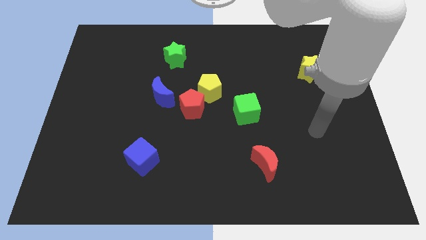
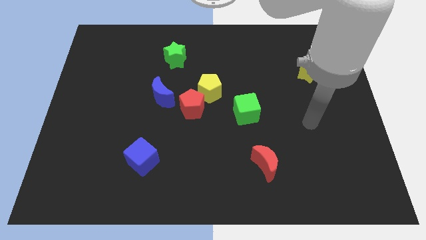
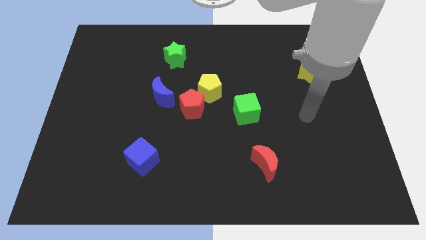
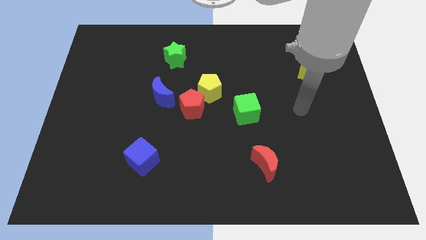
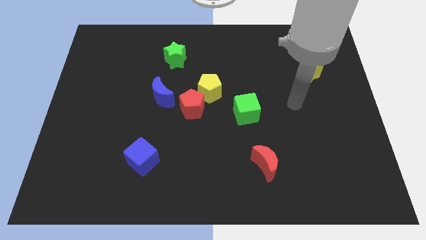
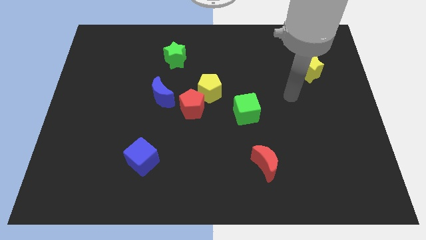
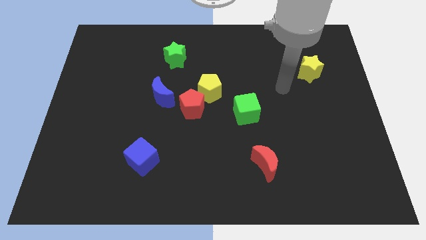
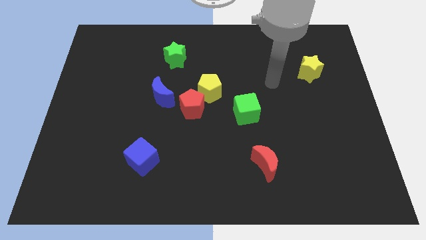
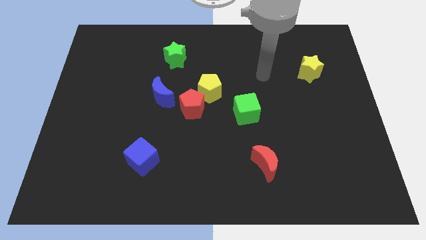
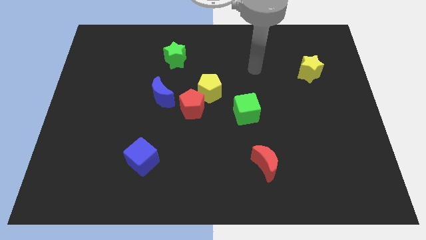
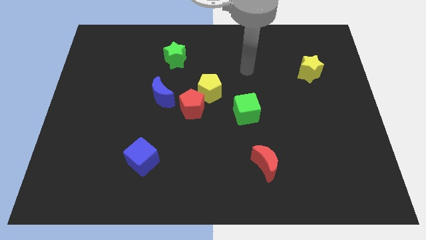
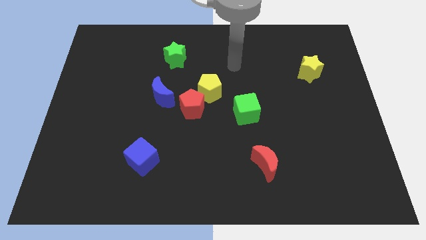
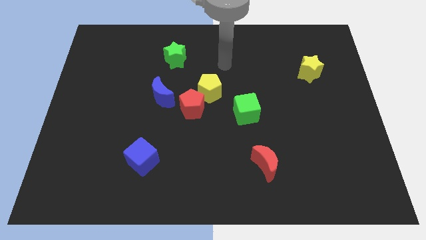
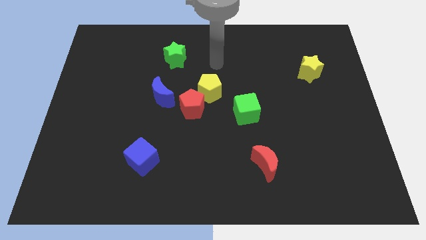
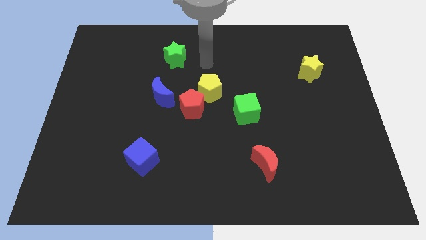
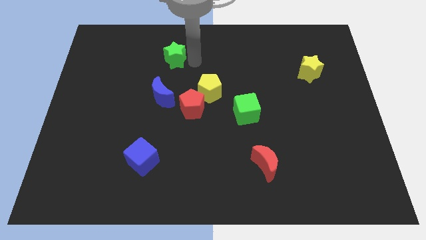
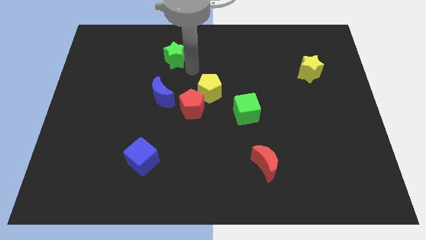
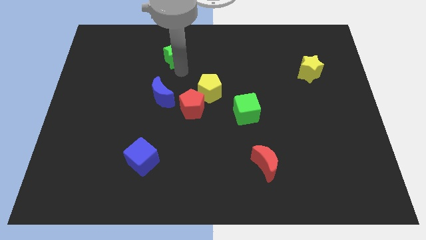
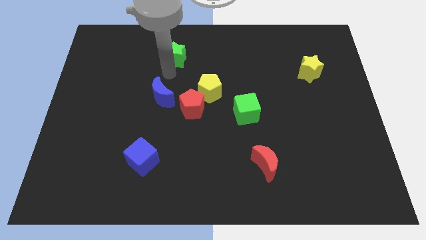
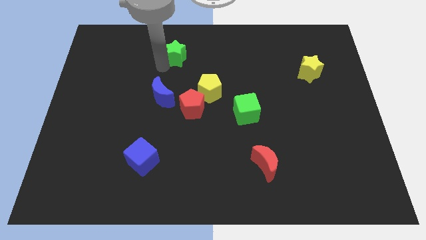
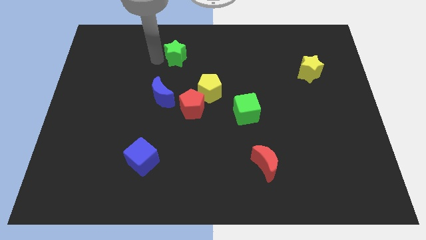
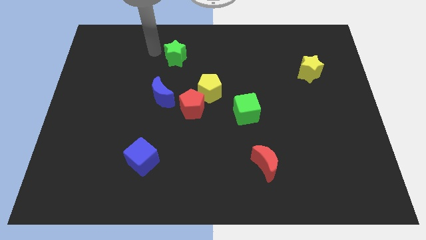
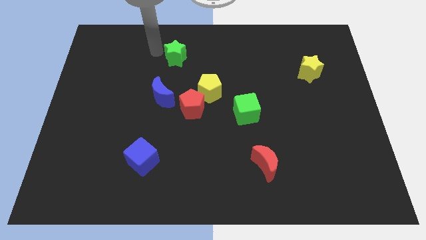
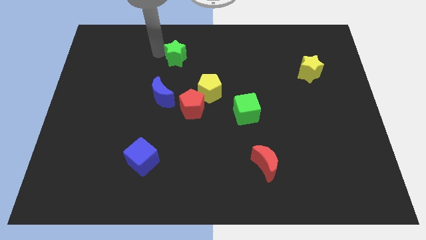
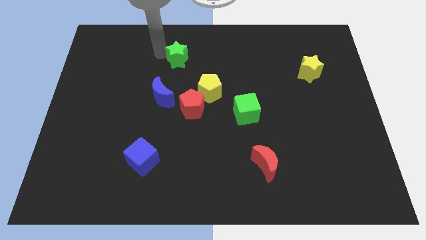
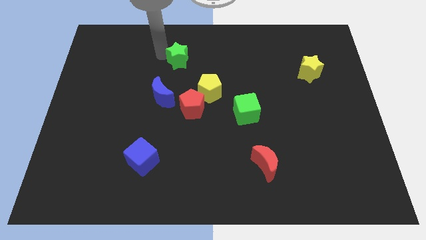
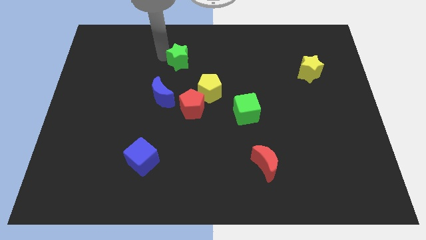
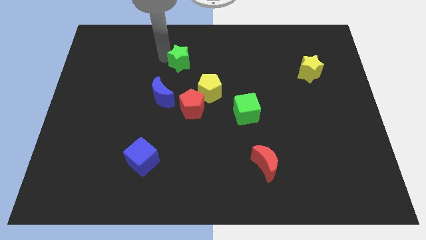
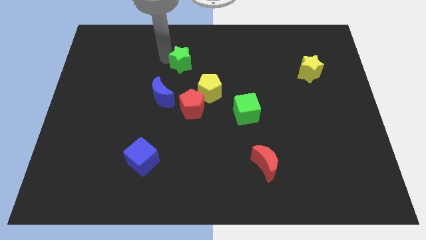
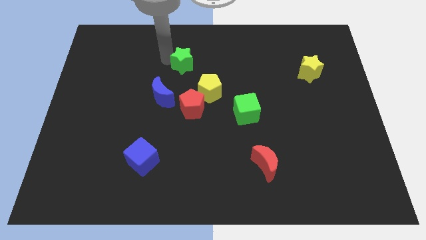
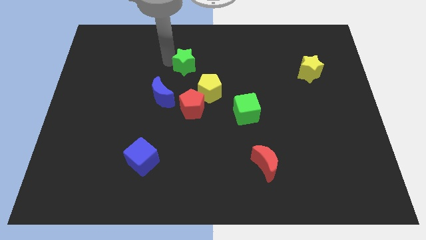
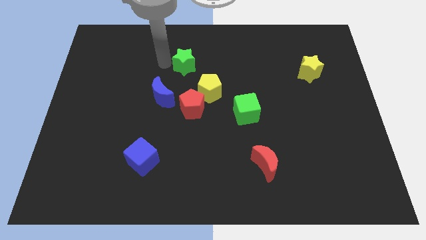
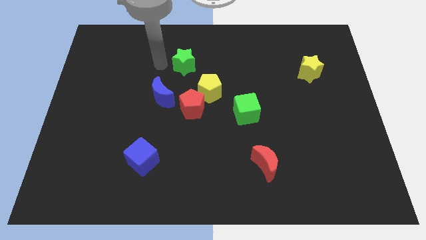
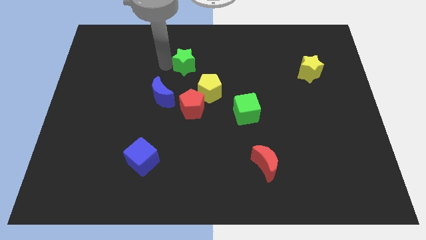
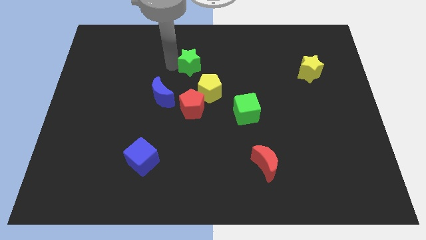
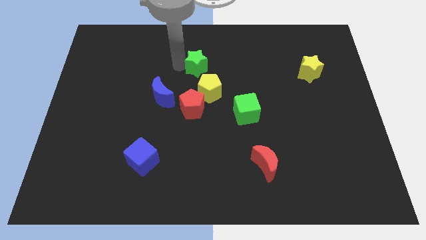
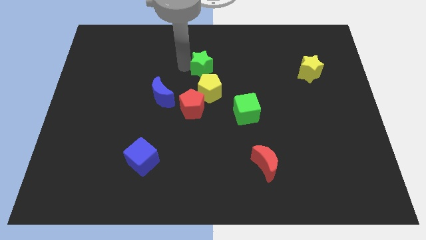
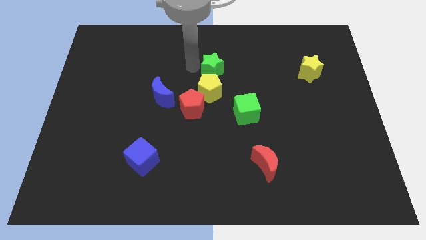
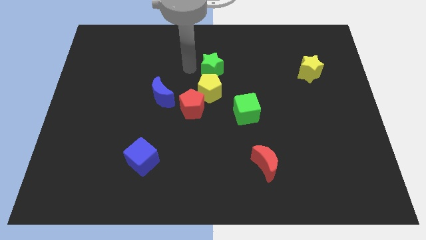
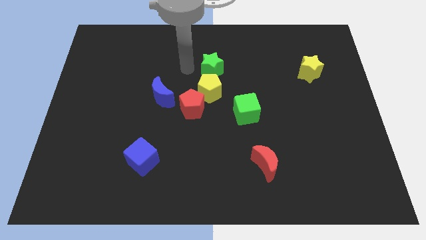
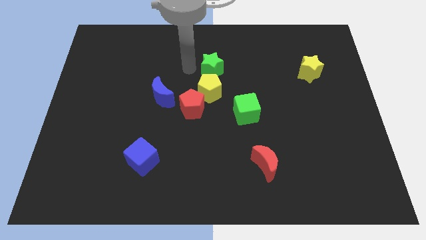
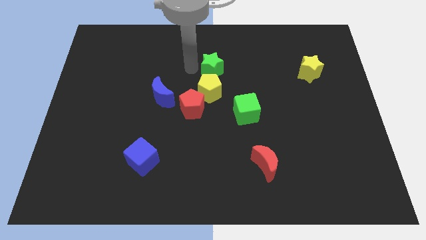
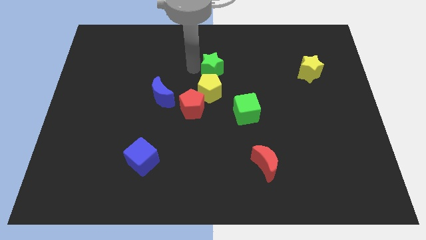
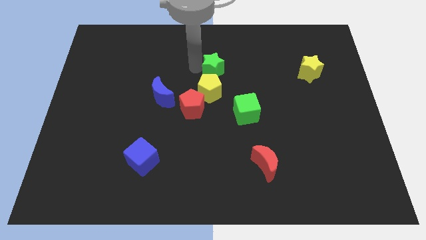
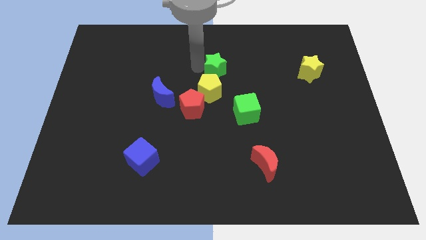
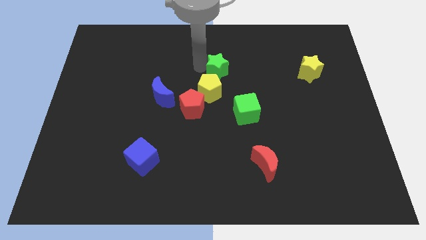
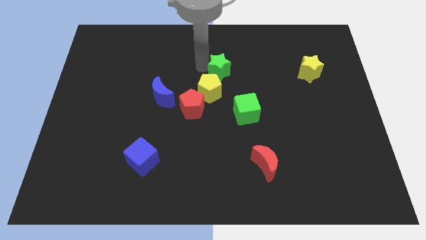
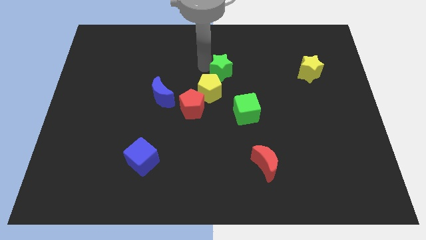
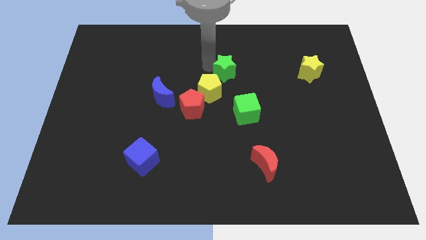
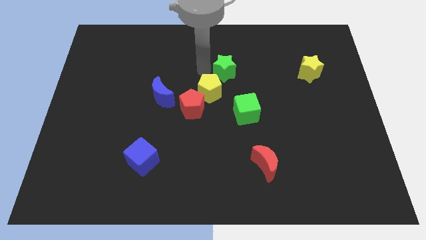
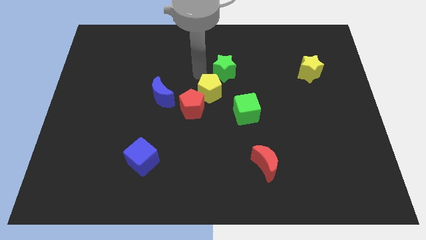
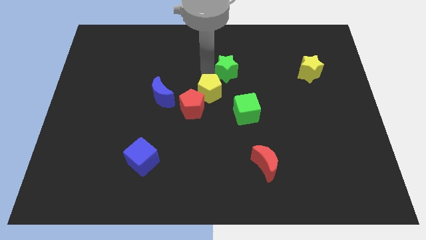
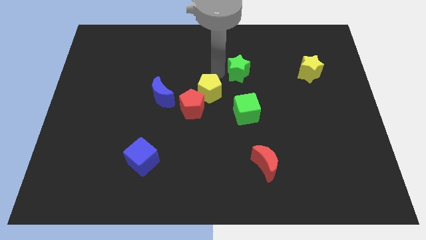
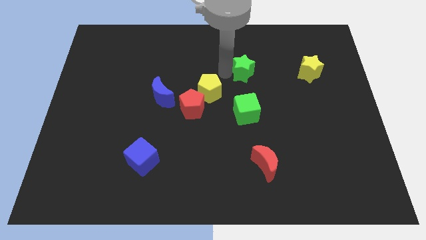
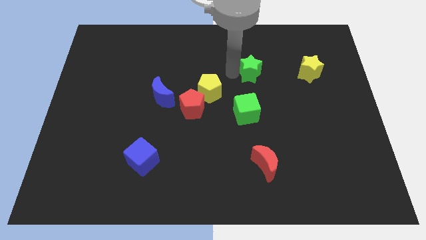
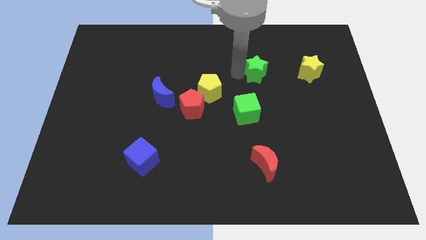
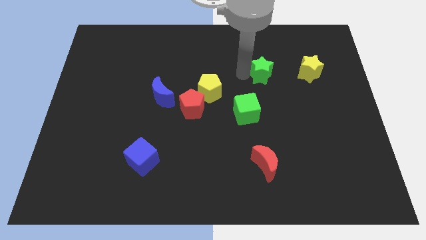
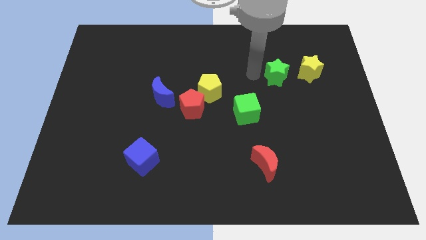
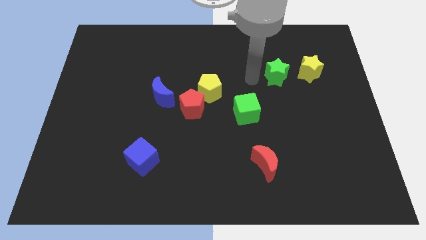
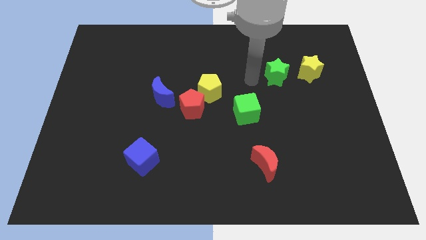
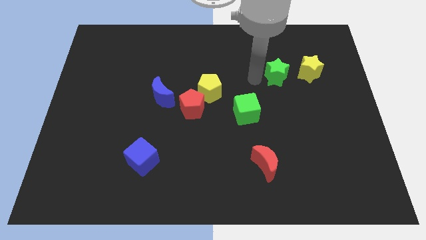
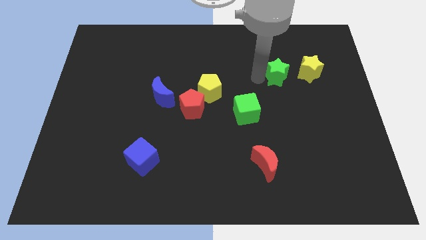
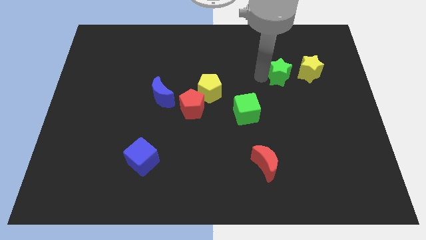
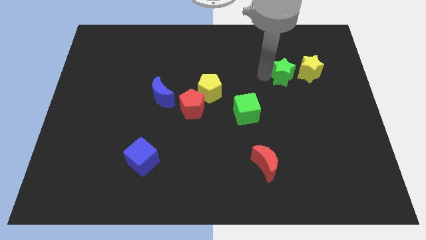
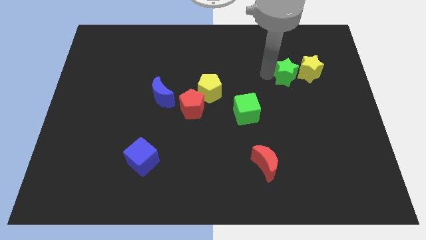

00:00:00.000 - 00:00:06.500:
push the green star to the yellow star

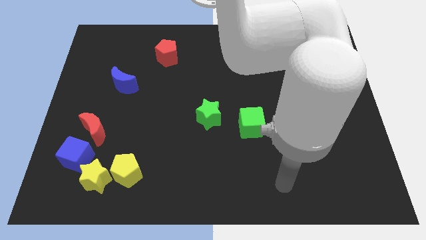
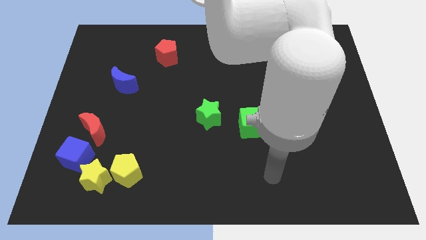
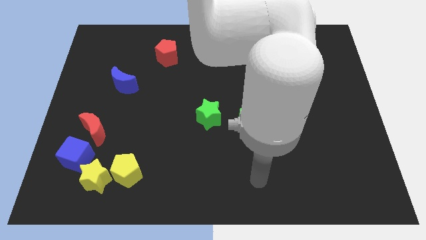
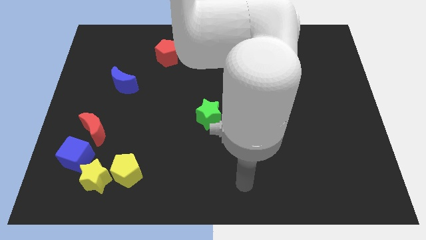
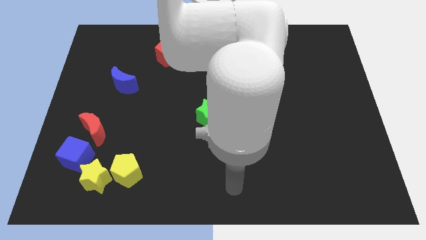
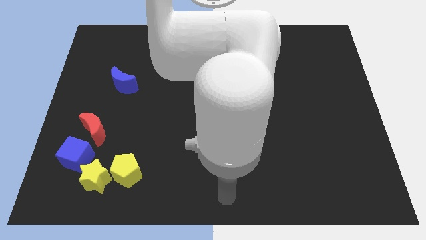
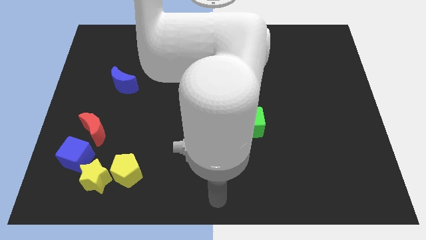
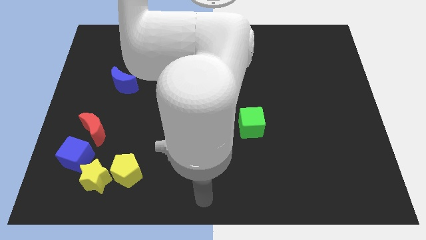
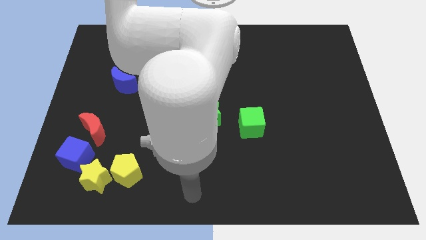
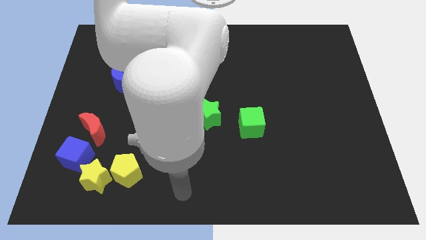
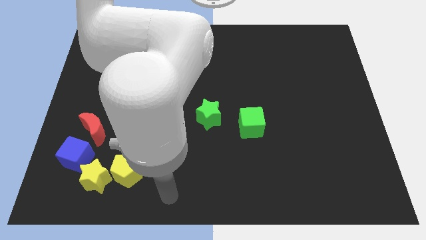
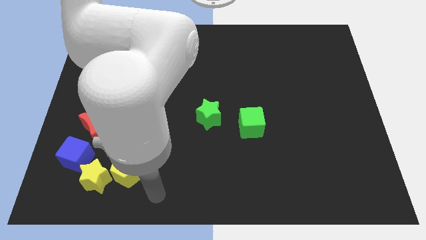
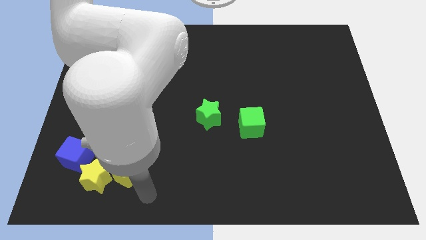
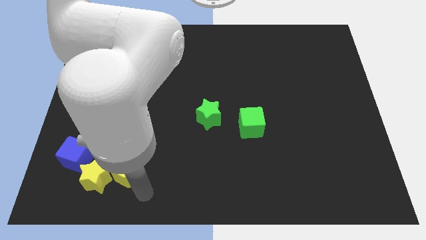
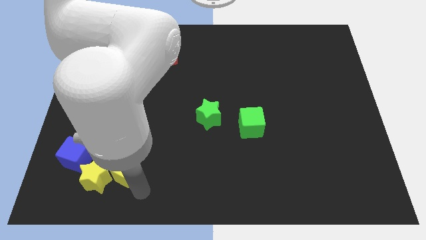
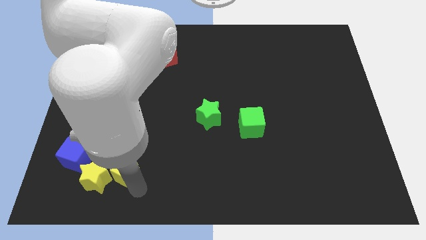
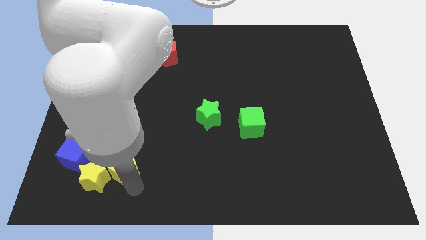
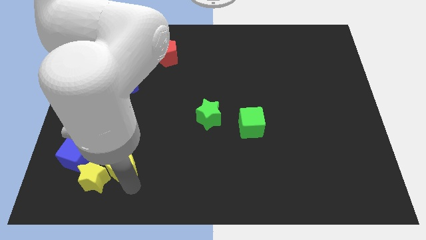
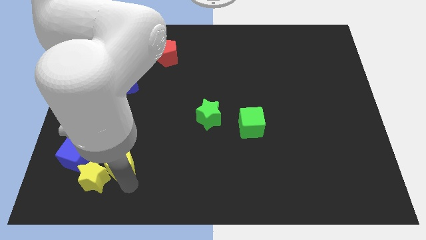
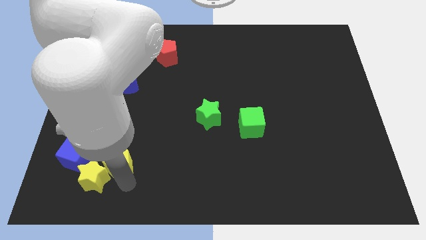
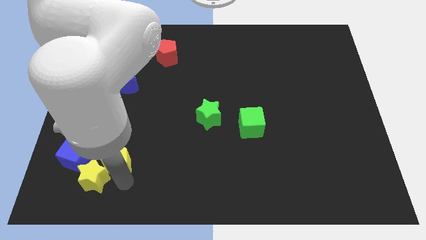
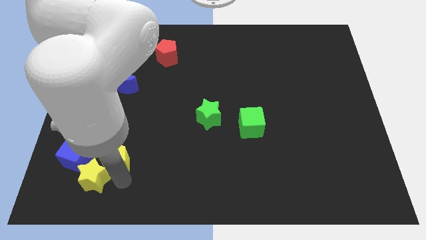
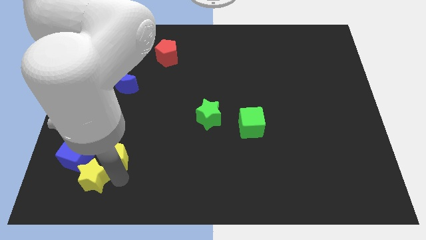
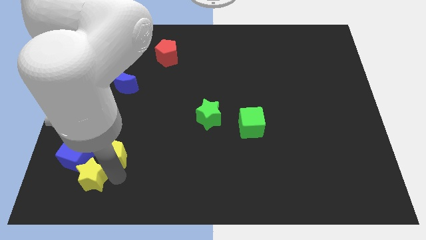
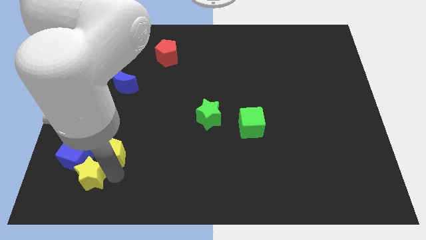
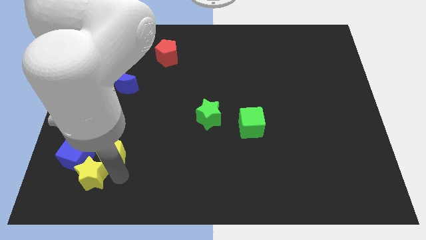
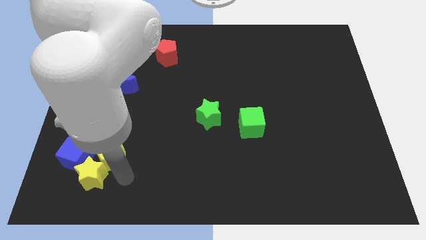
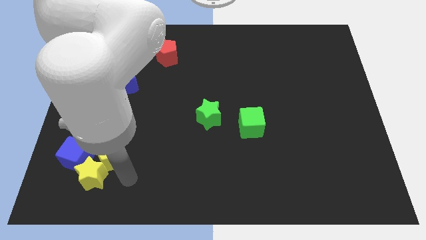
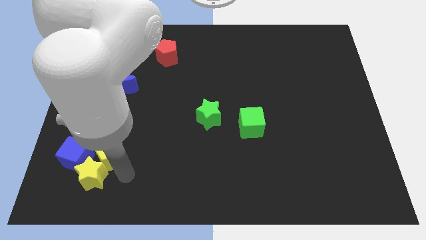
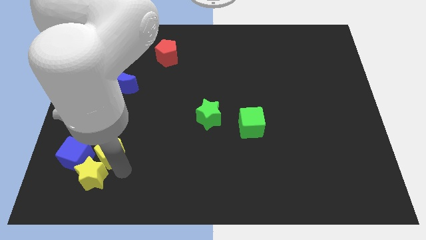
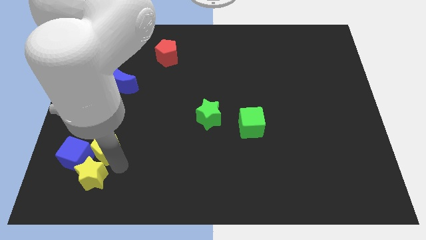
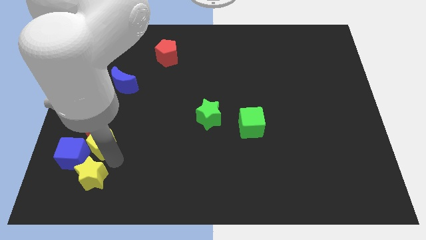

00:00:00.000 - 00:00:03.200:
put the yellow pentagon close to the red moon
